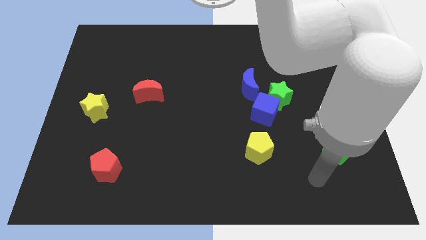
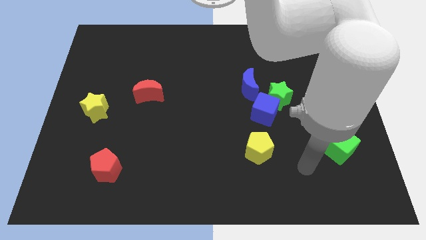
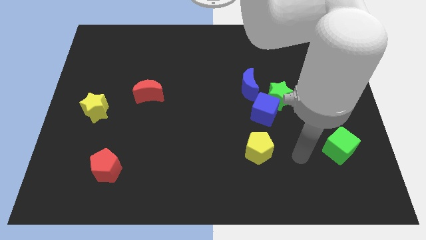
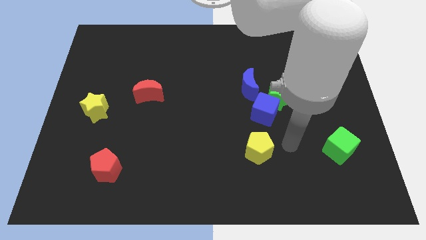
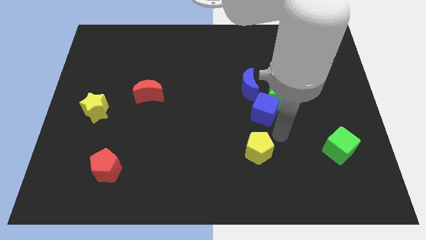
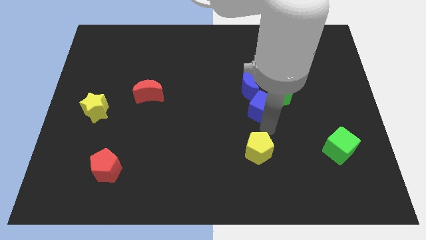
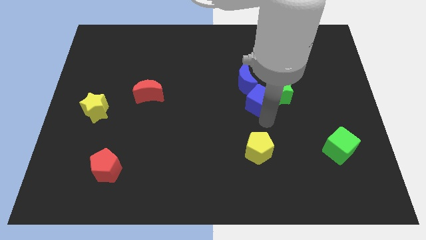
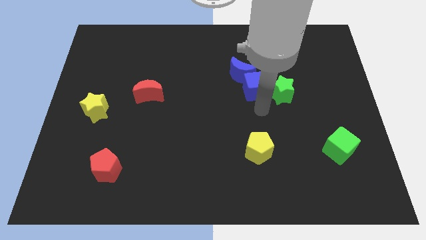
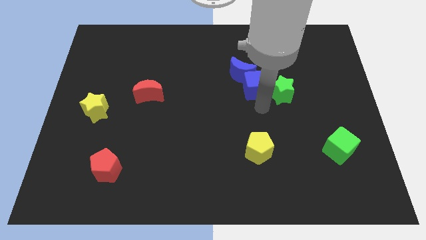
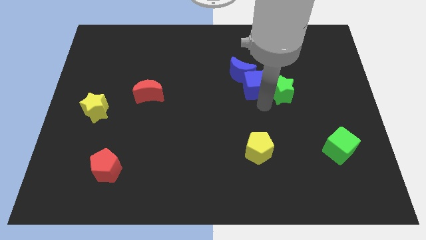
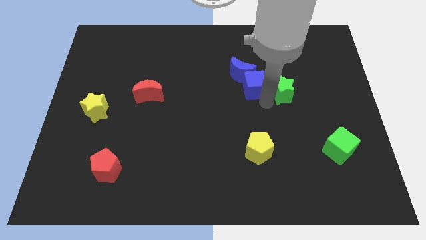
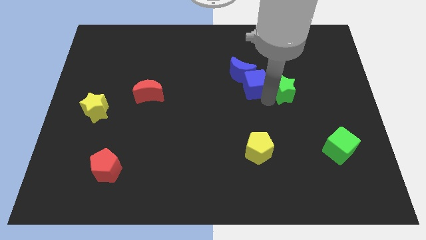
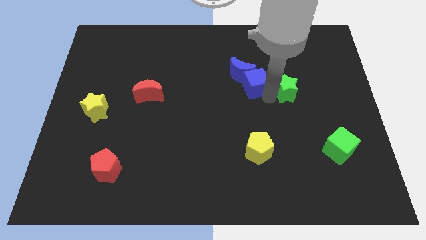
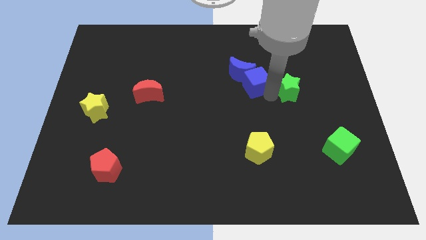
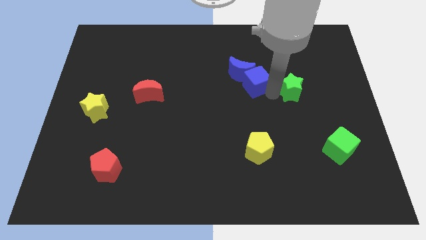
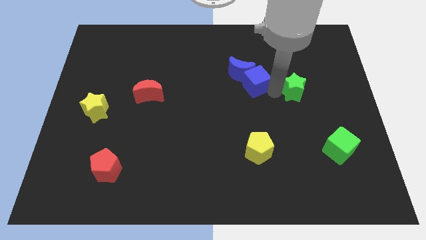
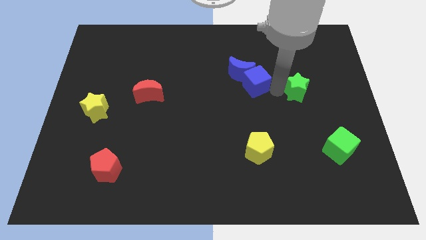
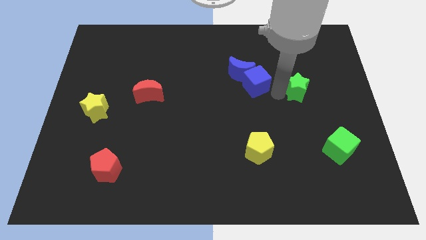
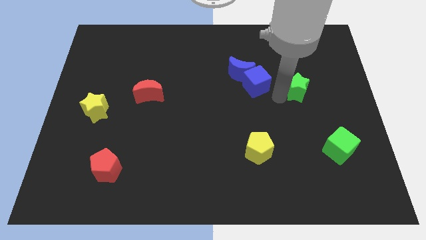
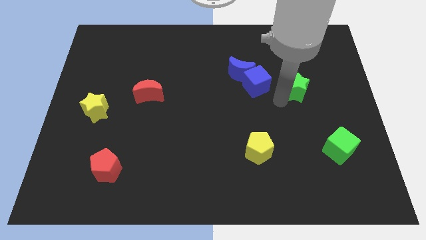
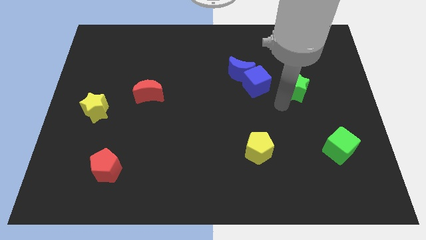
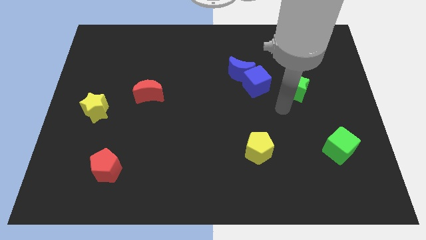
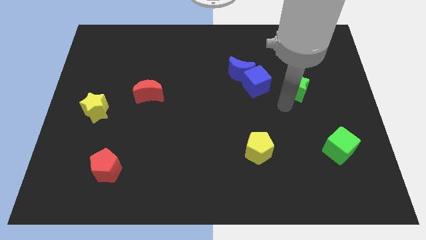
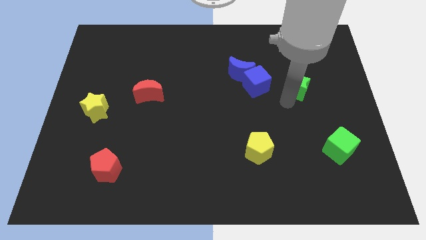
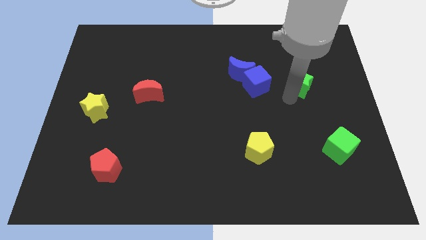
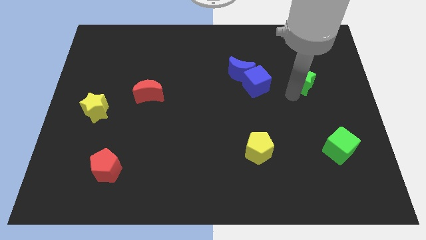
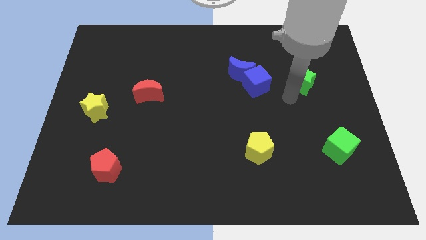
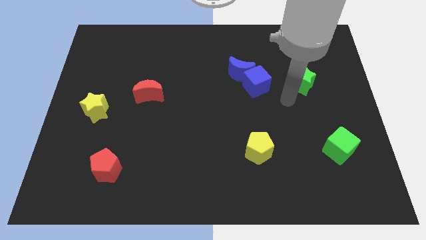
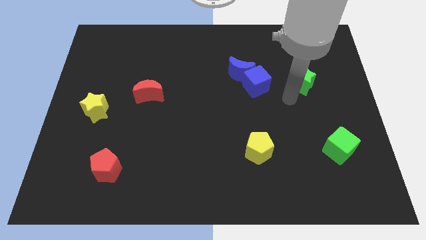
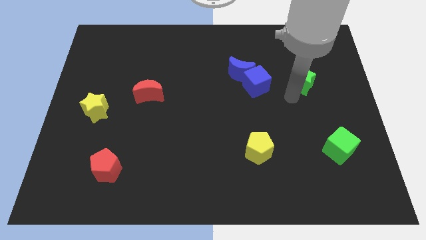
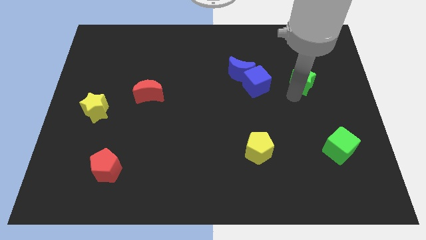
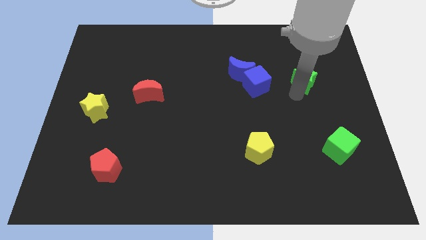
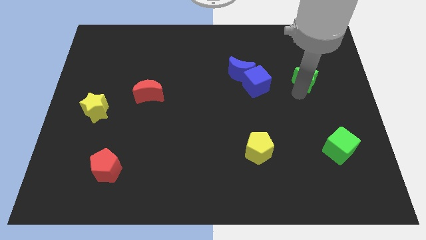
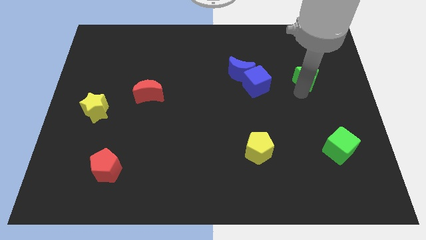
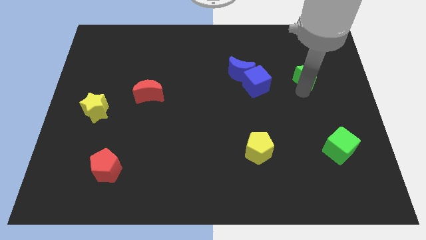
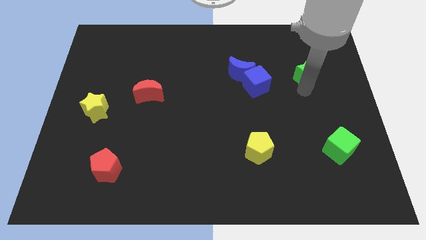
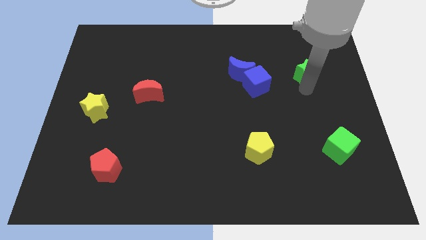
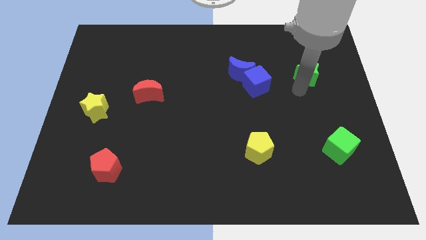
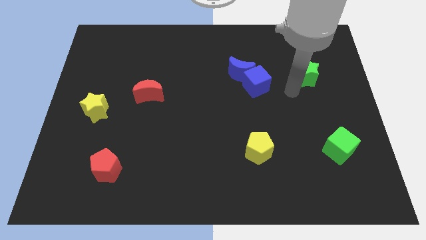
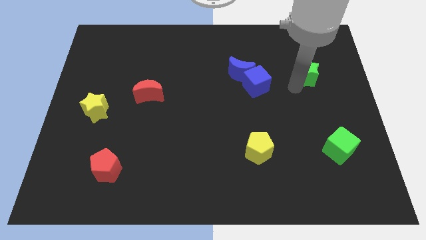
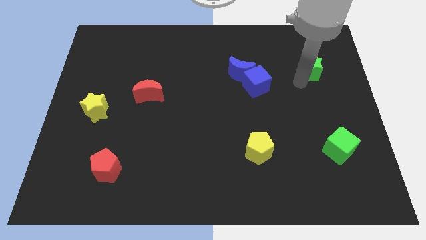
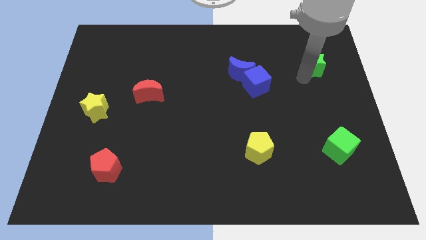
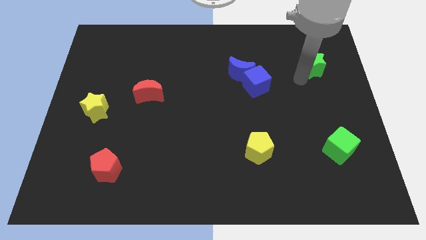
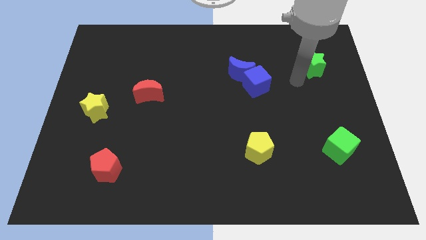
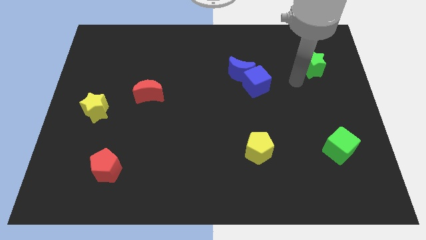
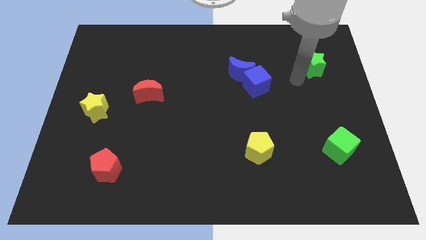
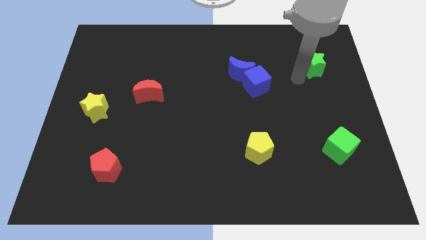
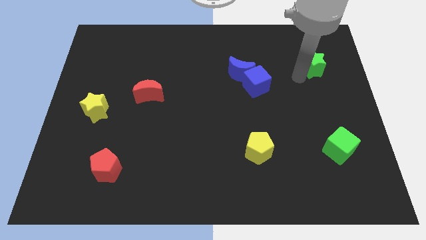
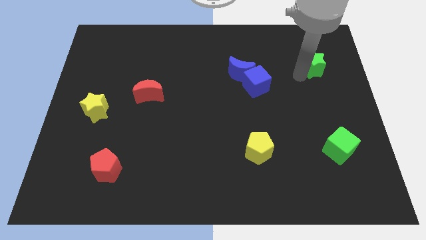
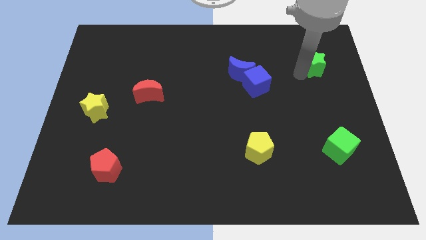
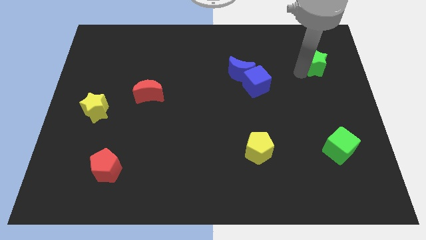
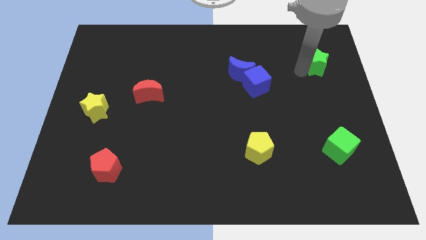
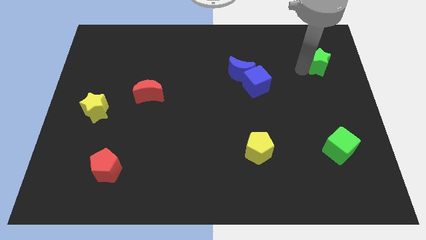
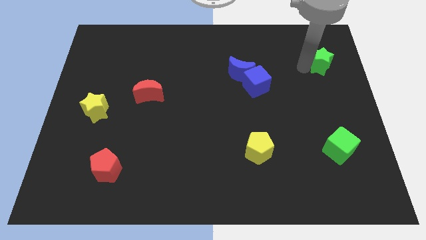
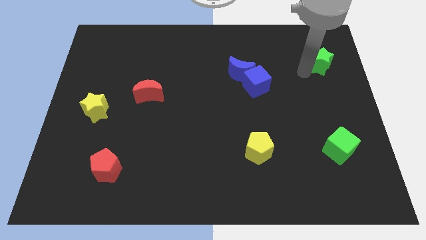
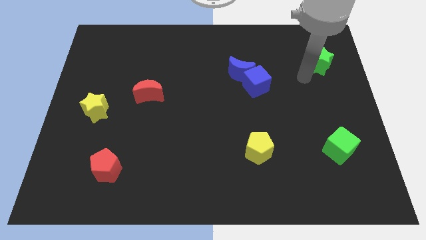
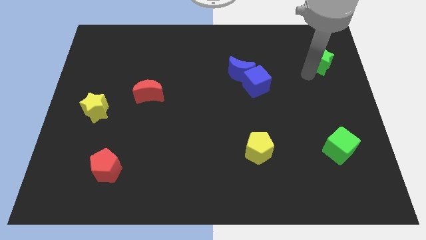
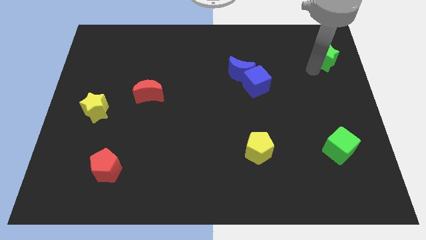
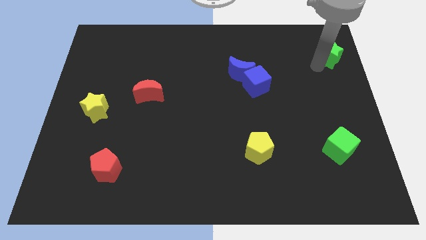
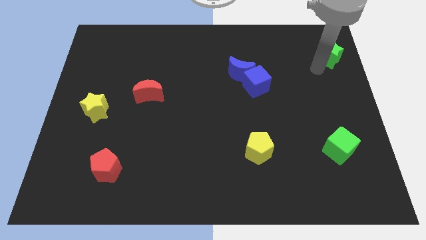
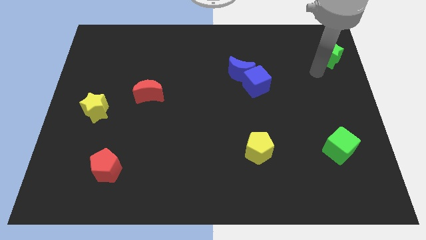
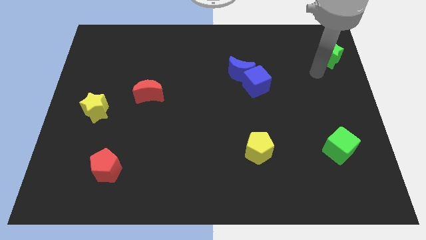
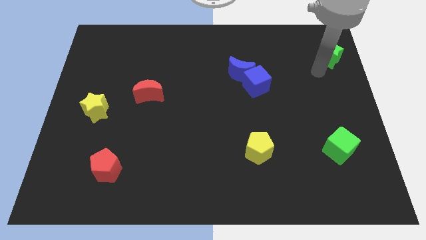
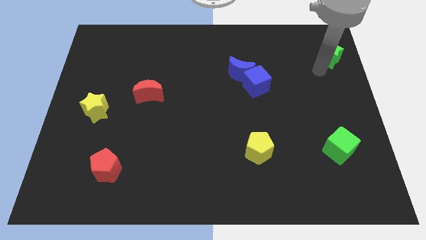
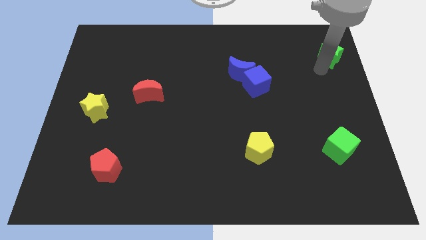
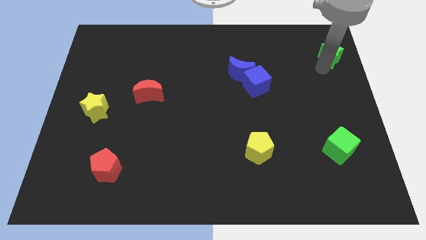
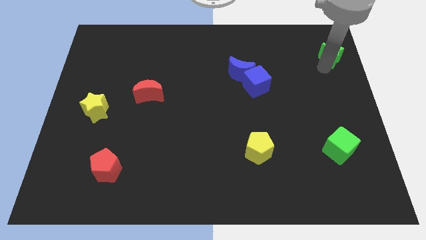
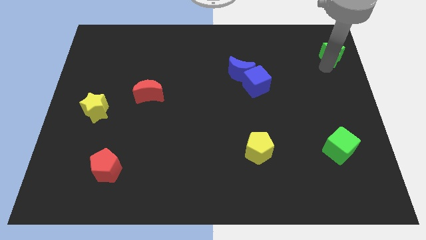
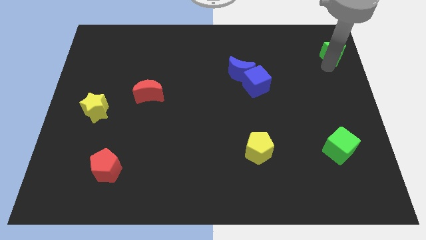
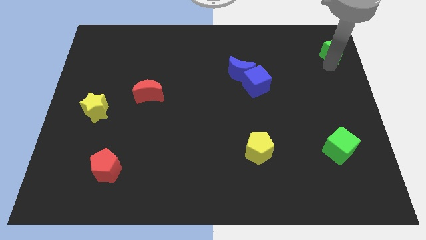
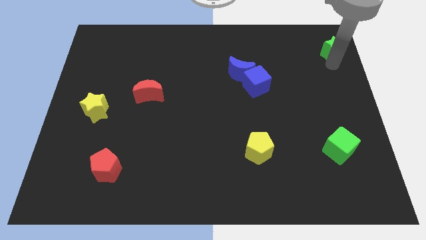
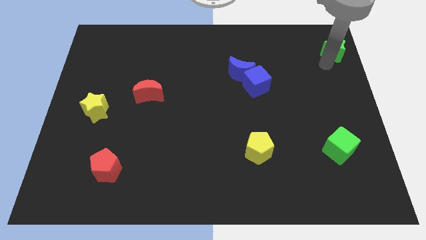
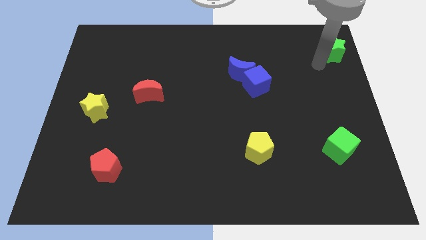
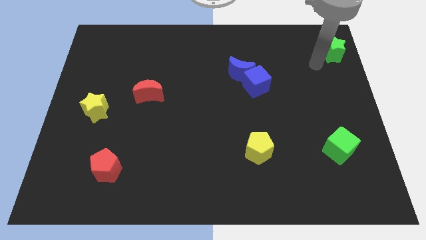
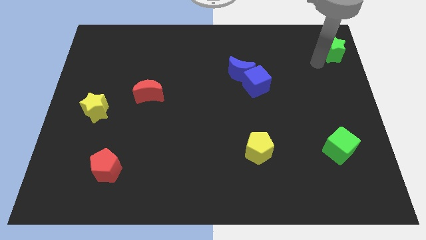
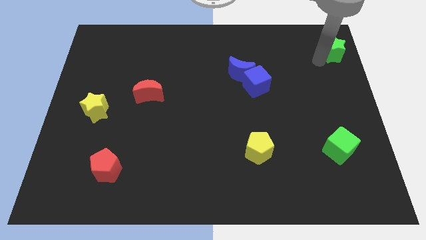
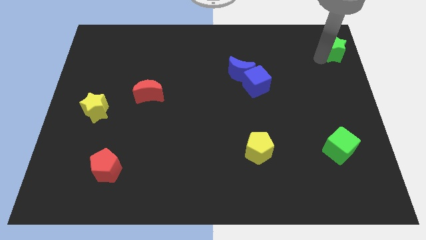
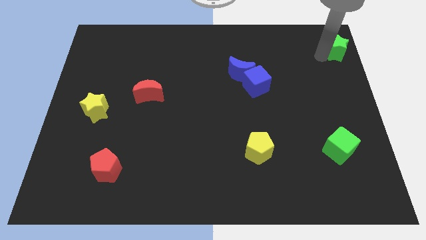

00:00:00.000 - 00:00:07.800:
slide the green star to the top right corner
